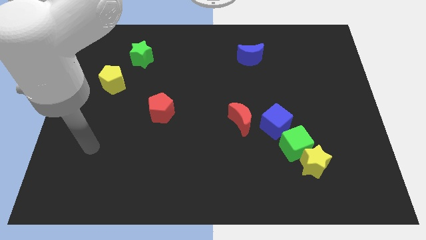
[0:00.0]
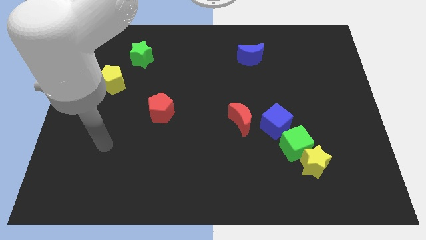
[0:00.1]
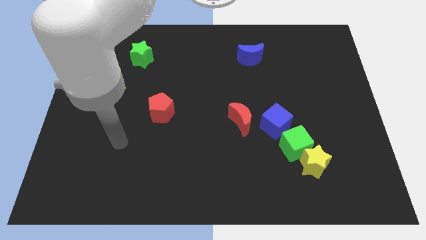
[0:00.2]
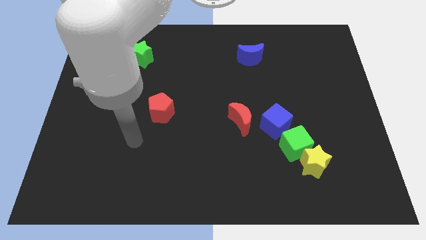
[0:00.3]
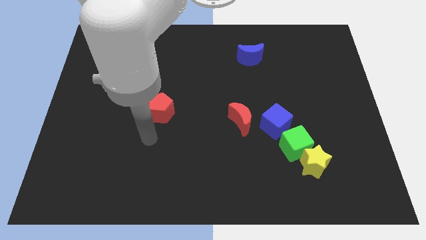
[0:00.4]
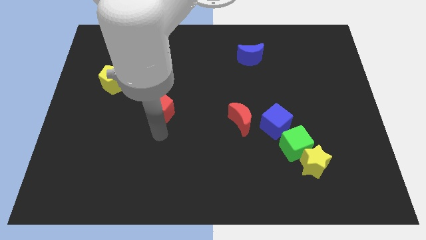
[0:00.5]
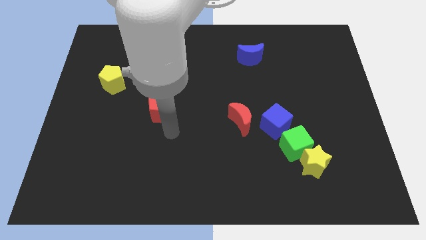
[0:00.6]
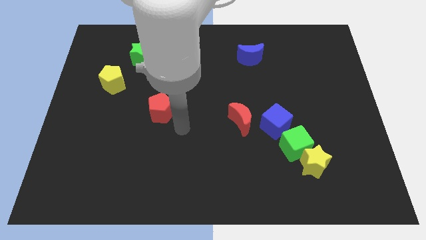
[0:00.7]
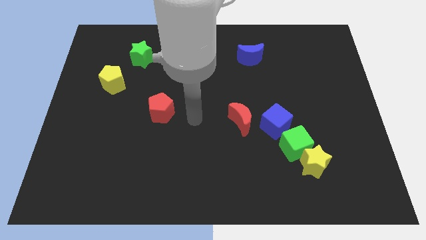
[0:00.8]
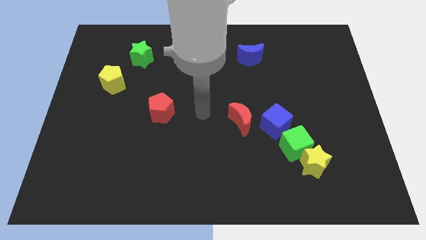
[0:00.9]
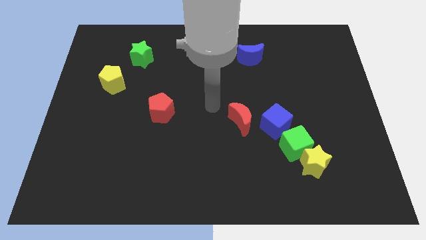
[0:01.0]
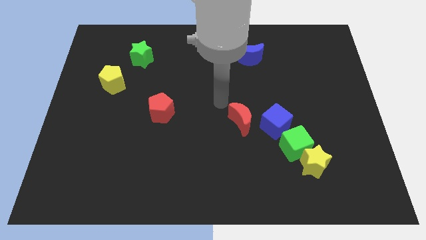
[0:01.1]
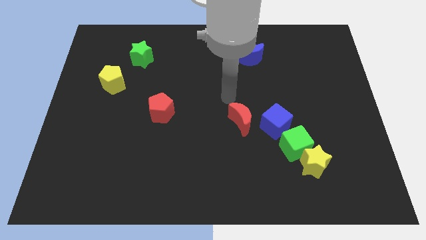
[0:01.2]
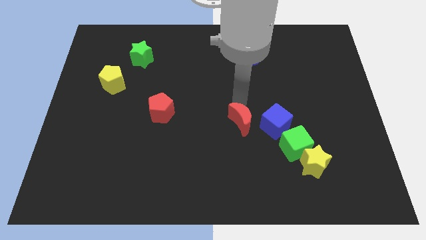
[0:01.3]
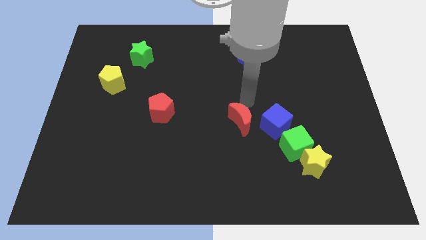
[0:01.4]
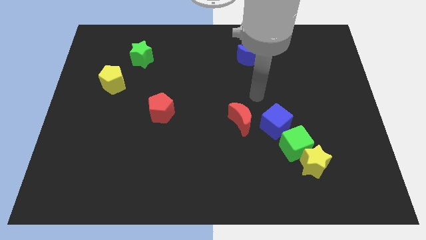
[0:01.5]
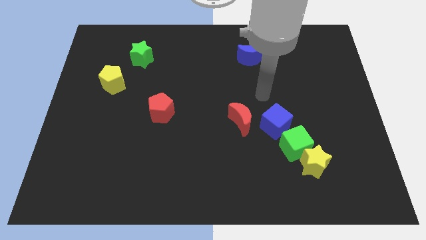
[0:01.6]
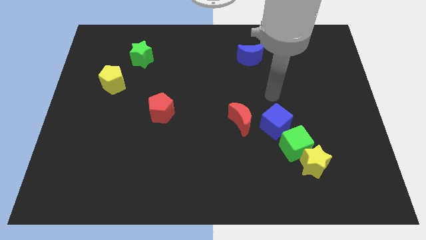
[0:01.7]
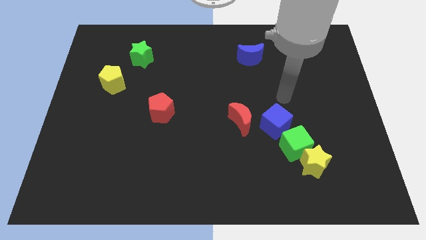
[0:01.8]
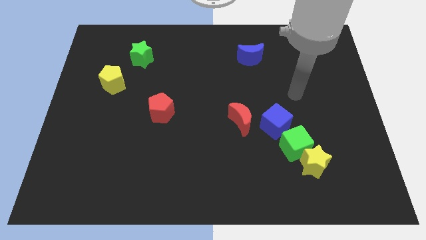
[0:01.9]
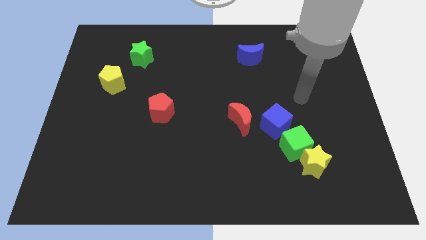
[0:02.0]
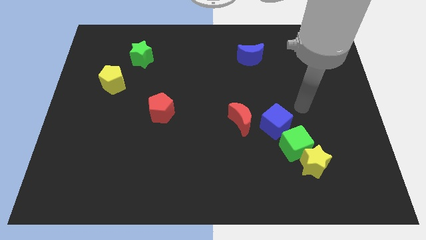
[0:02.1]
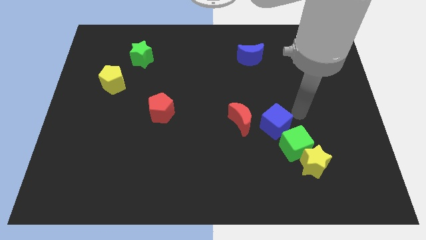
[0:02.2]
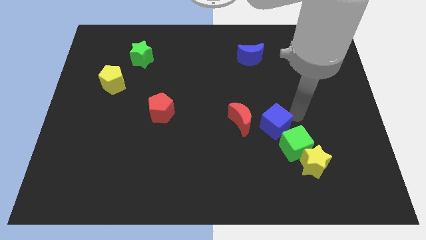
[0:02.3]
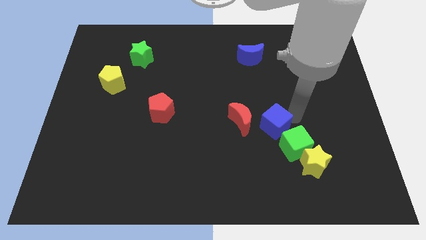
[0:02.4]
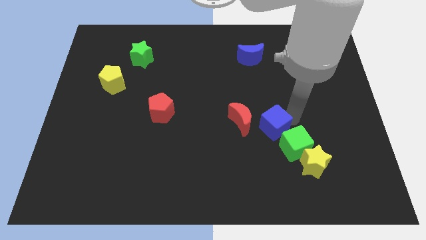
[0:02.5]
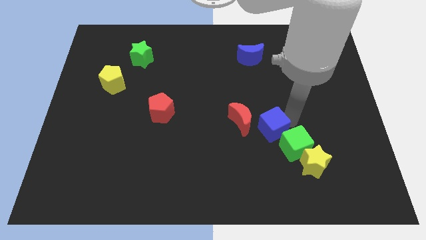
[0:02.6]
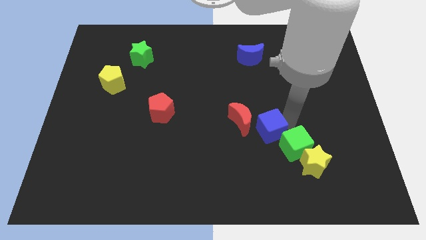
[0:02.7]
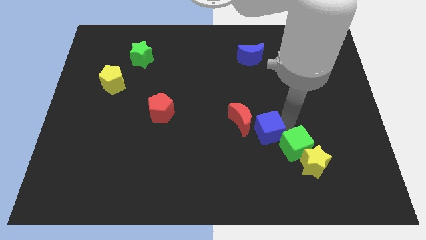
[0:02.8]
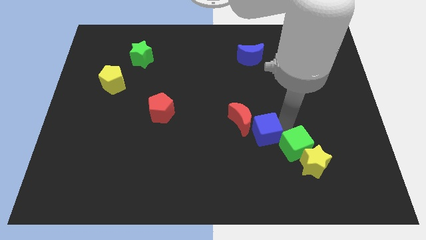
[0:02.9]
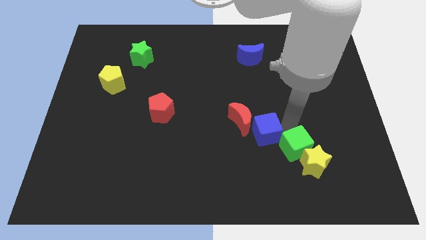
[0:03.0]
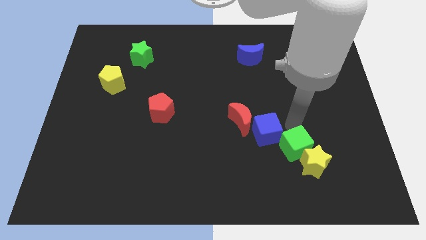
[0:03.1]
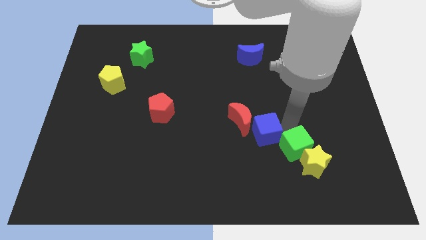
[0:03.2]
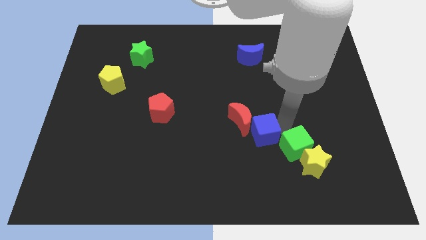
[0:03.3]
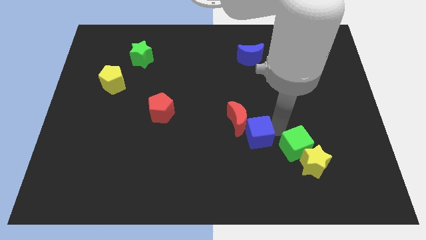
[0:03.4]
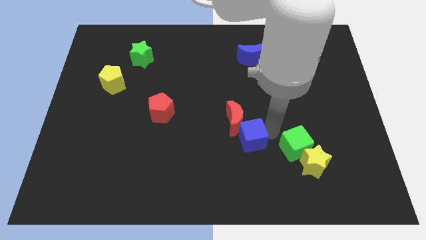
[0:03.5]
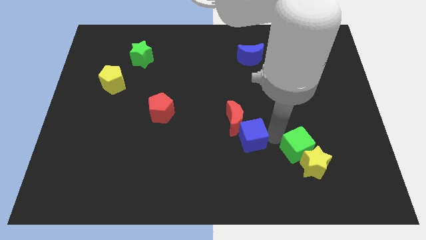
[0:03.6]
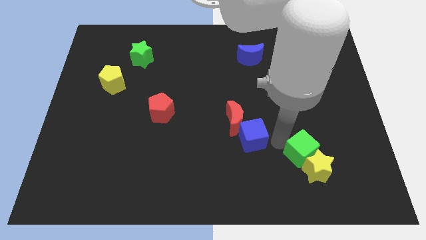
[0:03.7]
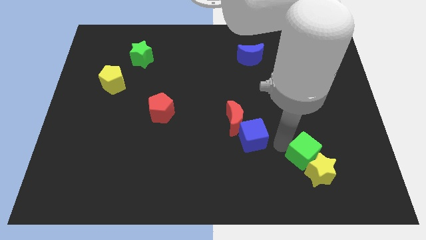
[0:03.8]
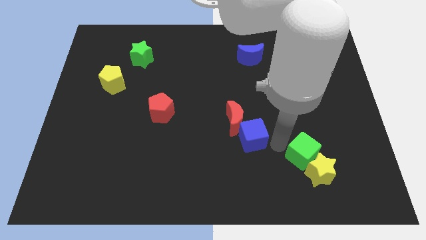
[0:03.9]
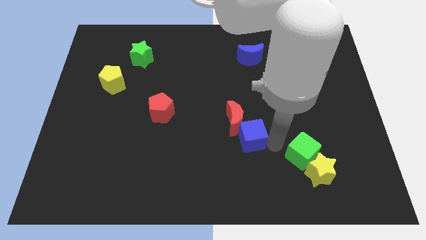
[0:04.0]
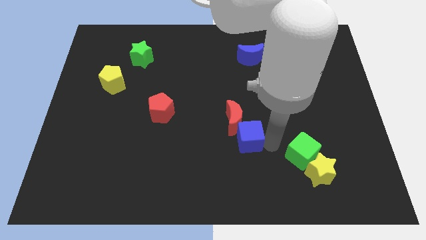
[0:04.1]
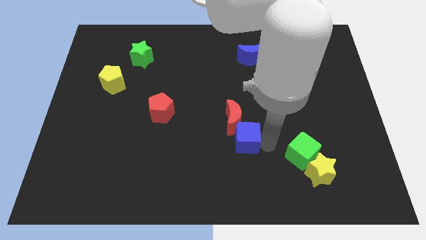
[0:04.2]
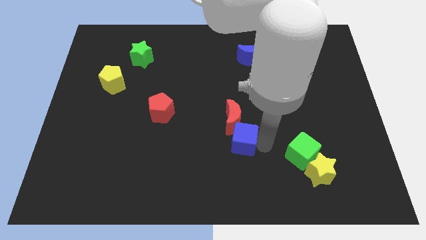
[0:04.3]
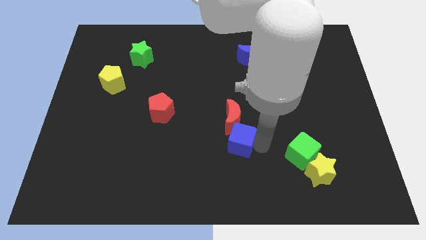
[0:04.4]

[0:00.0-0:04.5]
slightly push the blue cube left

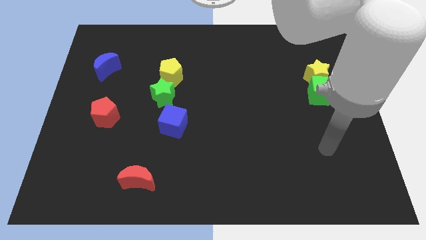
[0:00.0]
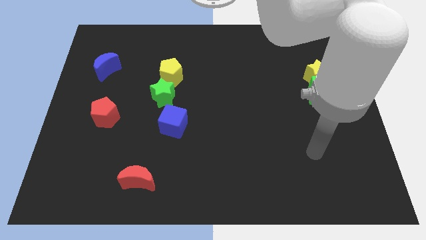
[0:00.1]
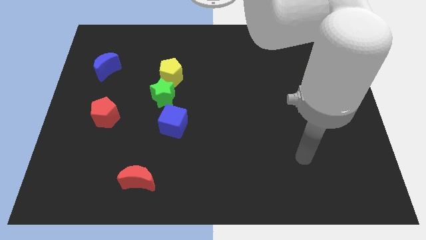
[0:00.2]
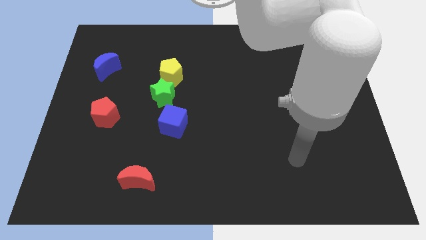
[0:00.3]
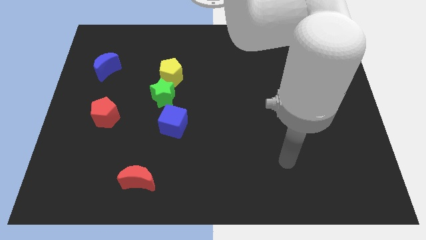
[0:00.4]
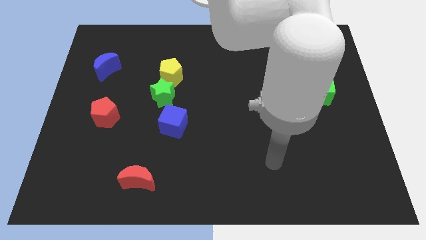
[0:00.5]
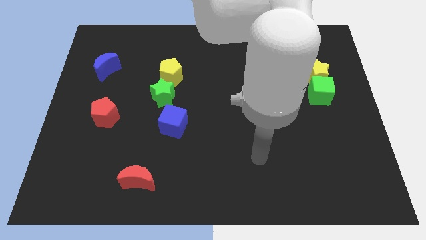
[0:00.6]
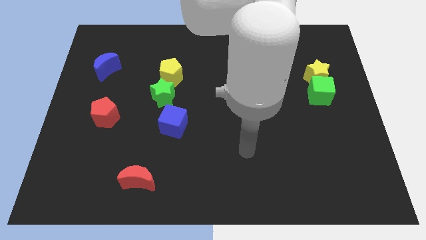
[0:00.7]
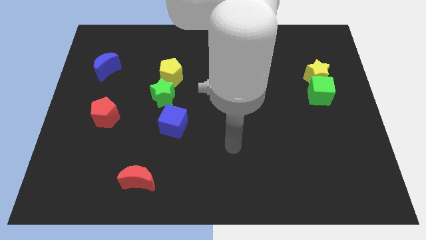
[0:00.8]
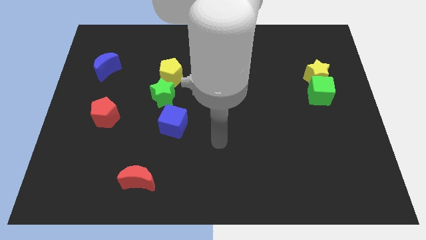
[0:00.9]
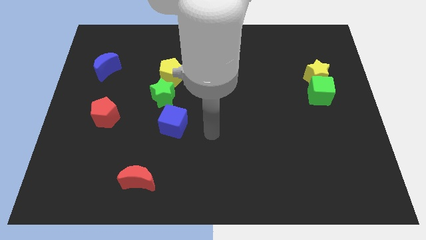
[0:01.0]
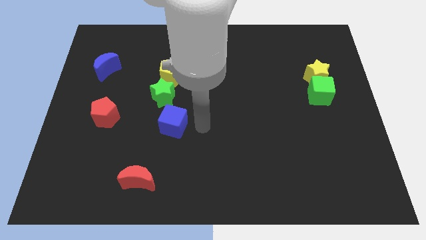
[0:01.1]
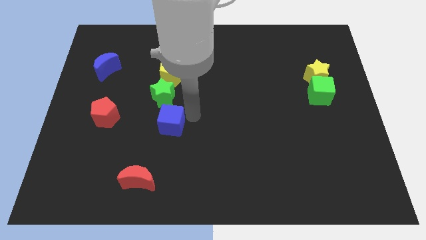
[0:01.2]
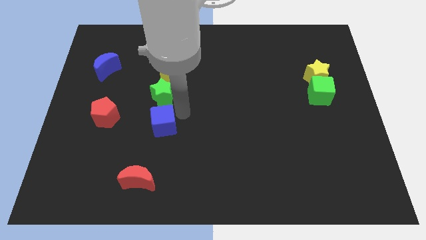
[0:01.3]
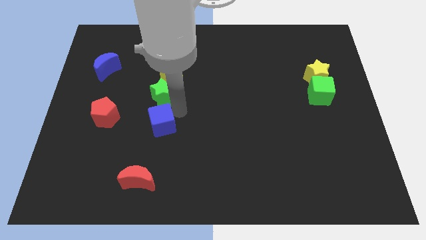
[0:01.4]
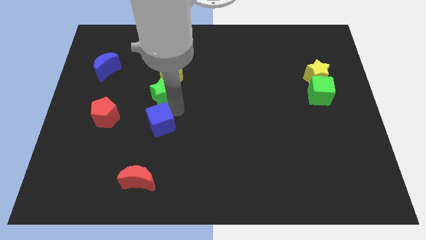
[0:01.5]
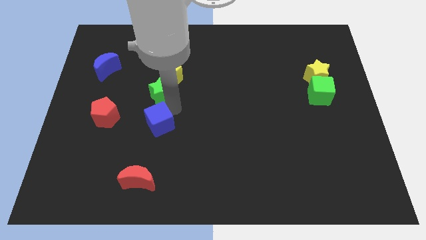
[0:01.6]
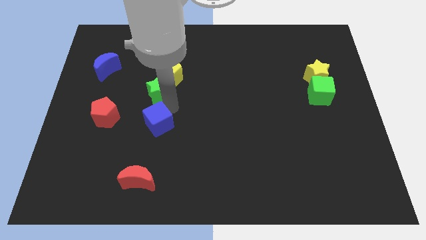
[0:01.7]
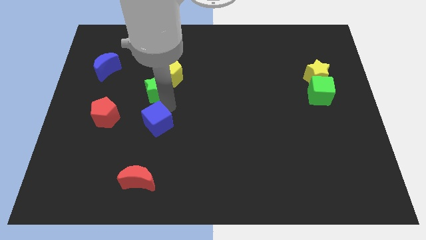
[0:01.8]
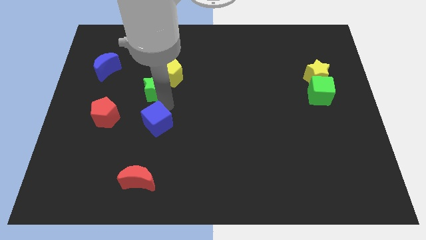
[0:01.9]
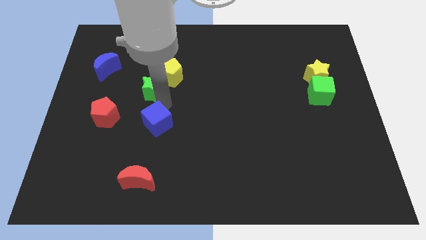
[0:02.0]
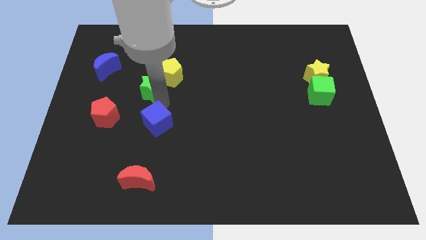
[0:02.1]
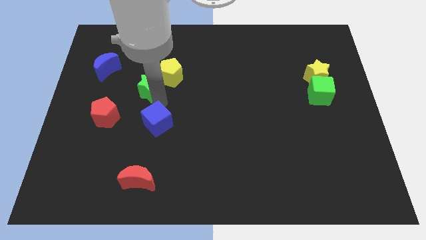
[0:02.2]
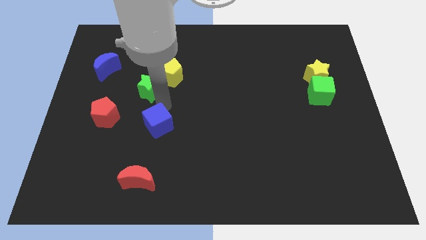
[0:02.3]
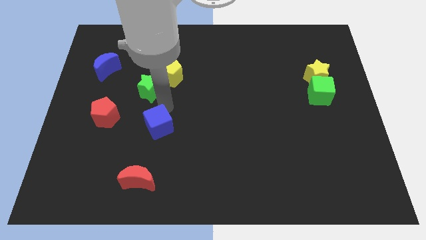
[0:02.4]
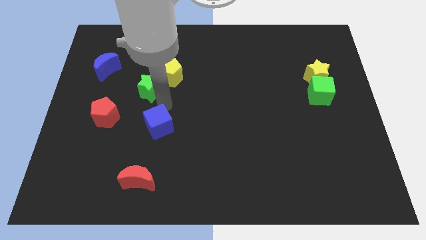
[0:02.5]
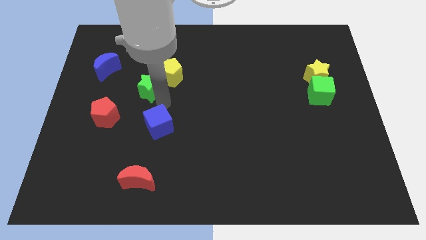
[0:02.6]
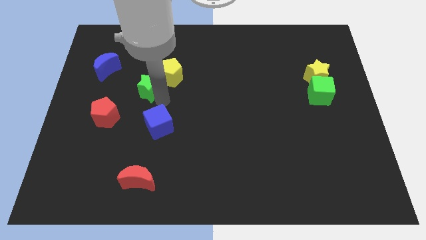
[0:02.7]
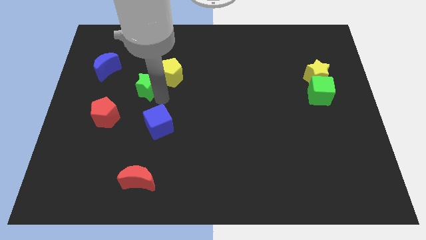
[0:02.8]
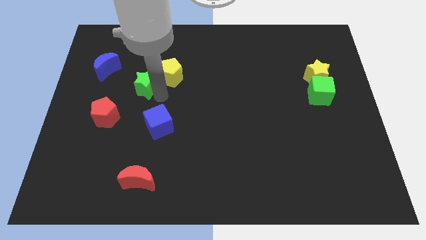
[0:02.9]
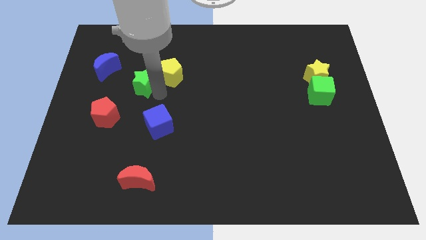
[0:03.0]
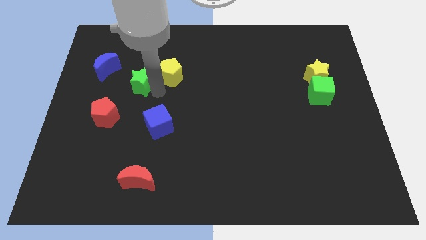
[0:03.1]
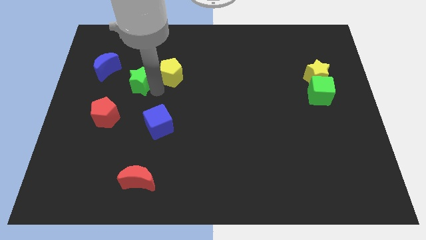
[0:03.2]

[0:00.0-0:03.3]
push the green star diagonally upwards and to the left slightly
